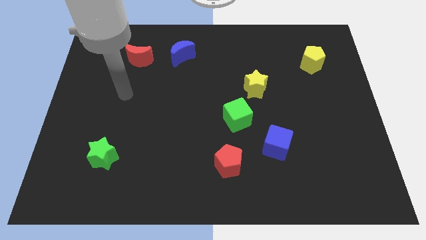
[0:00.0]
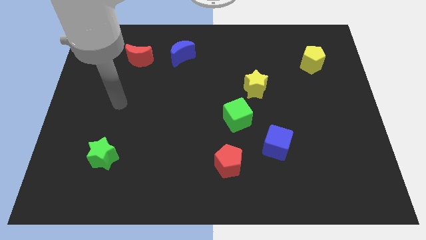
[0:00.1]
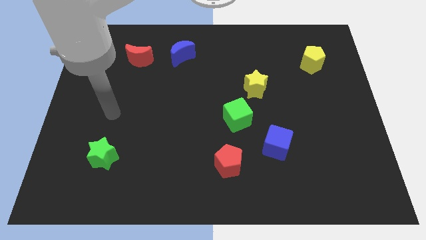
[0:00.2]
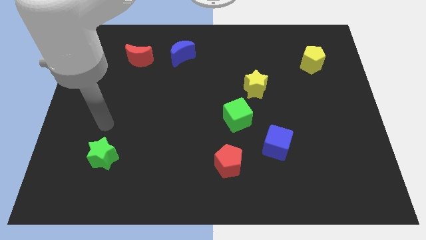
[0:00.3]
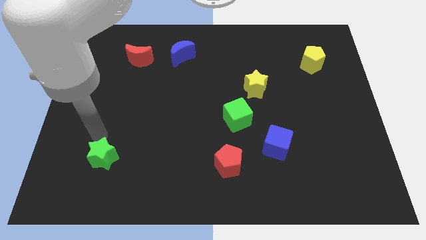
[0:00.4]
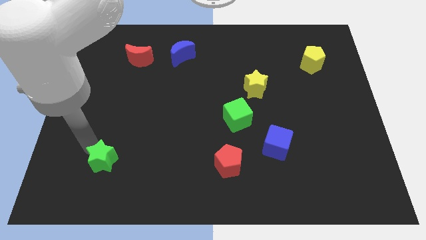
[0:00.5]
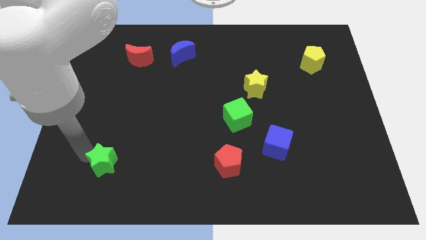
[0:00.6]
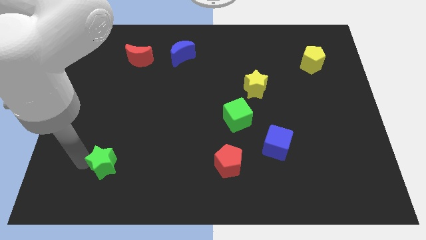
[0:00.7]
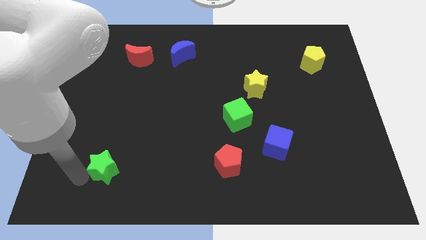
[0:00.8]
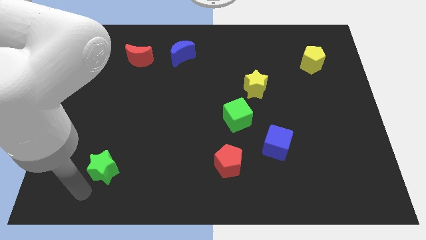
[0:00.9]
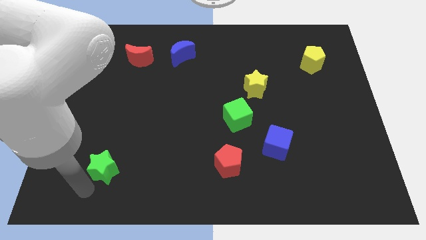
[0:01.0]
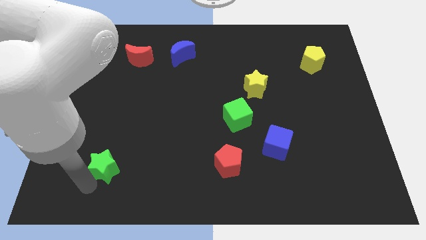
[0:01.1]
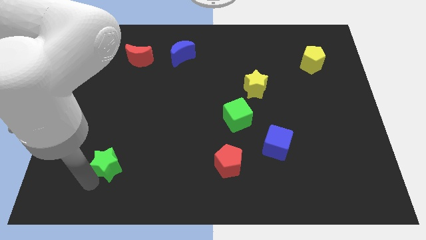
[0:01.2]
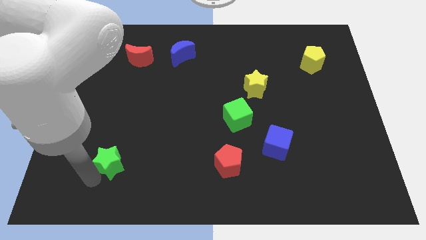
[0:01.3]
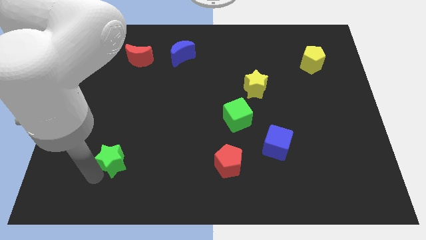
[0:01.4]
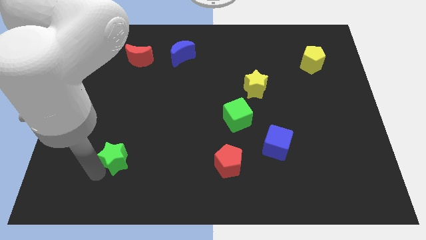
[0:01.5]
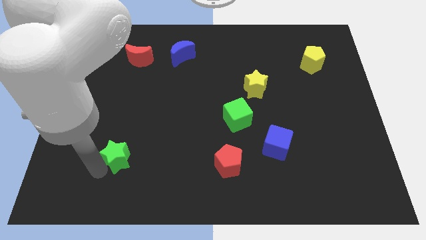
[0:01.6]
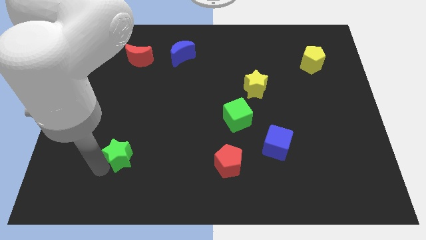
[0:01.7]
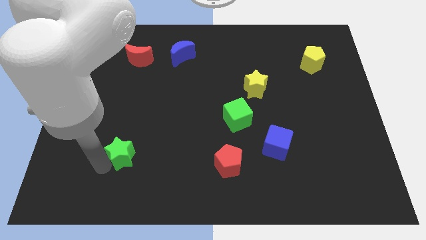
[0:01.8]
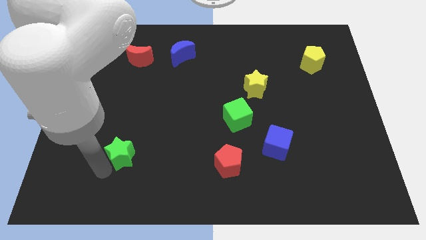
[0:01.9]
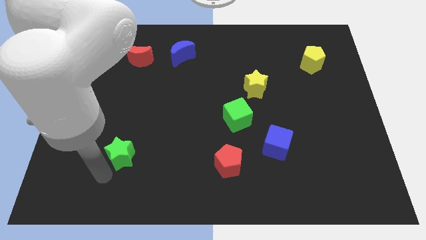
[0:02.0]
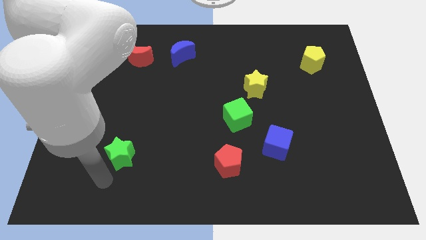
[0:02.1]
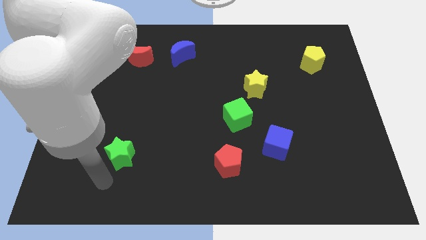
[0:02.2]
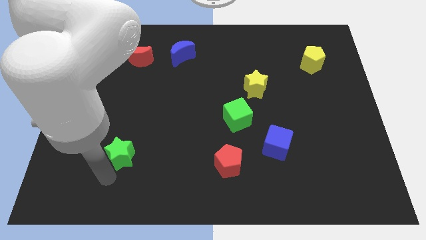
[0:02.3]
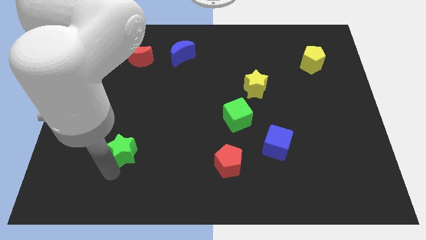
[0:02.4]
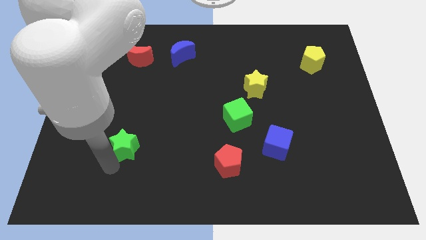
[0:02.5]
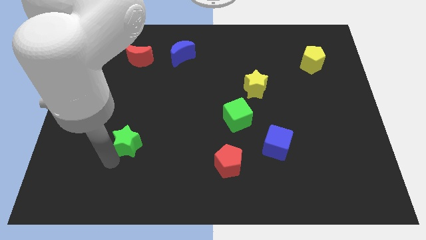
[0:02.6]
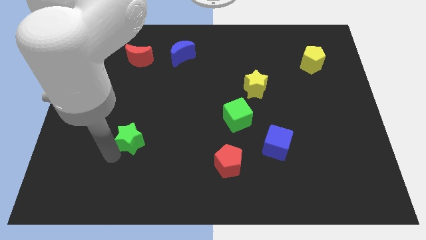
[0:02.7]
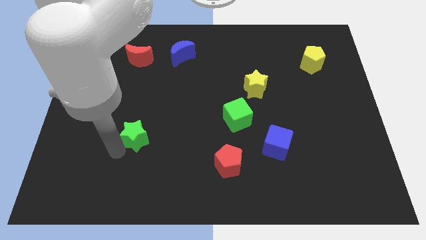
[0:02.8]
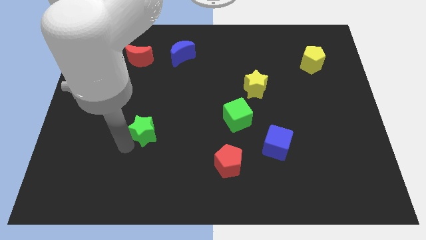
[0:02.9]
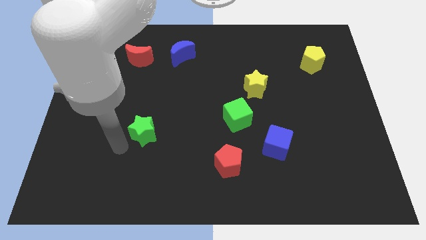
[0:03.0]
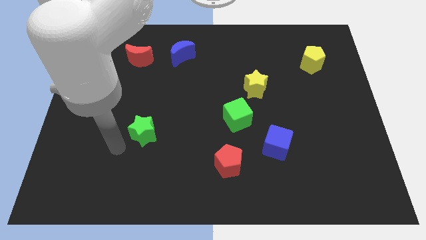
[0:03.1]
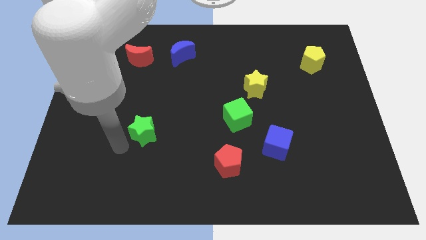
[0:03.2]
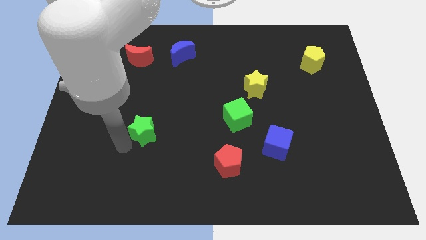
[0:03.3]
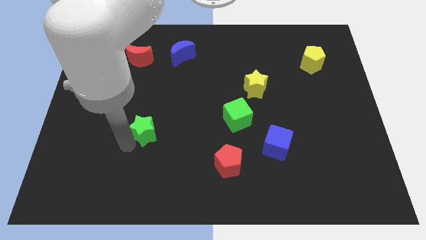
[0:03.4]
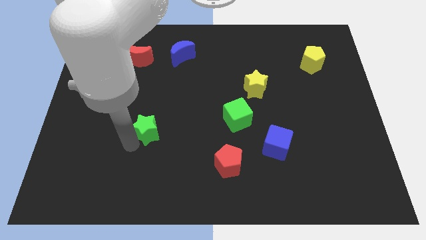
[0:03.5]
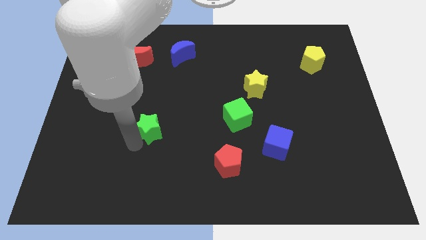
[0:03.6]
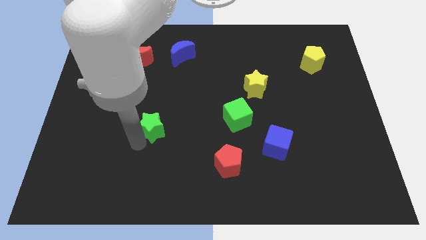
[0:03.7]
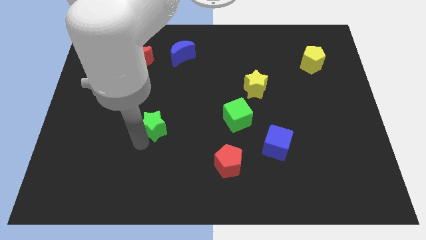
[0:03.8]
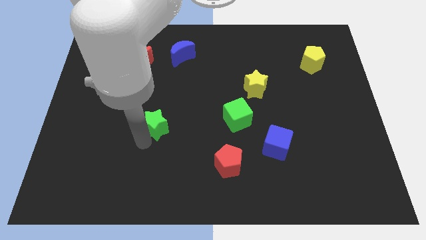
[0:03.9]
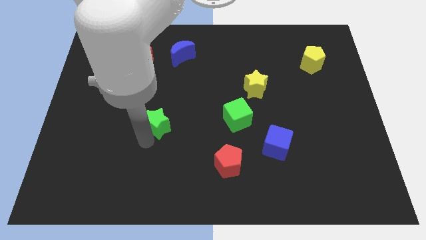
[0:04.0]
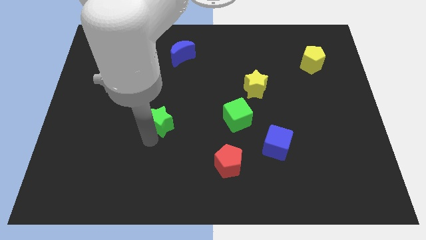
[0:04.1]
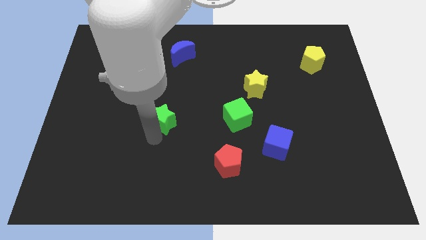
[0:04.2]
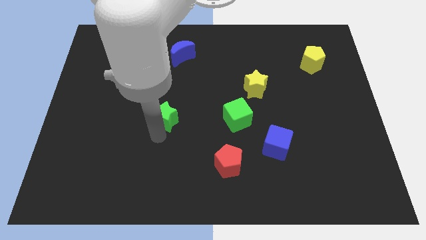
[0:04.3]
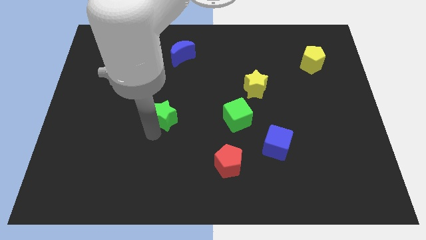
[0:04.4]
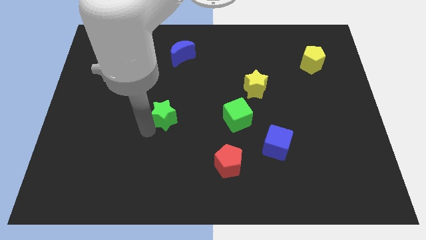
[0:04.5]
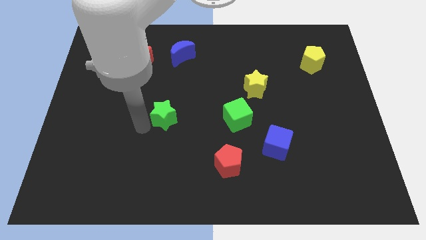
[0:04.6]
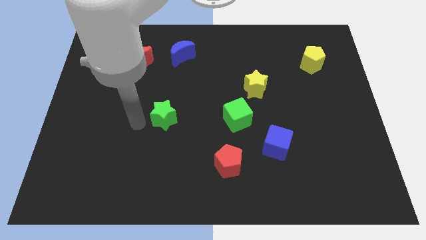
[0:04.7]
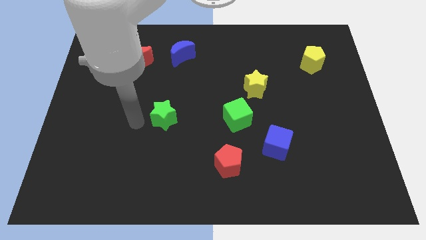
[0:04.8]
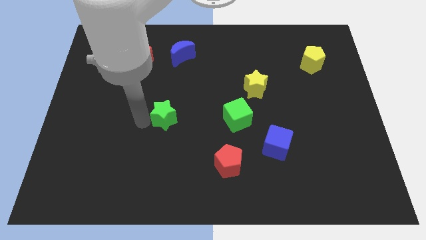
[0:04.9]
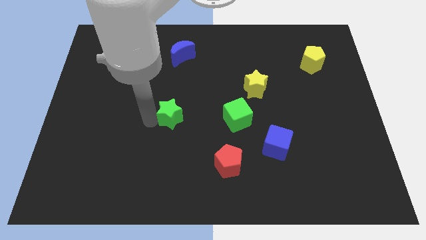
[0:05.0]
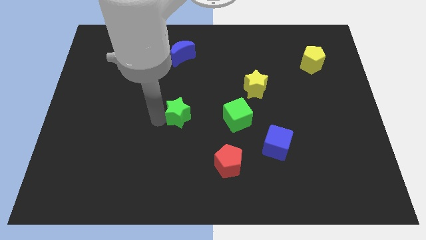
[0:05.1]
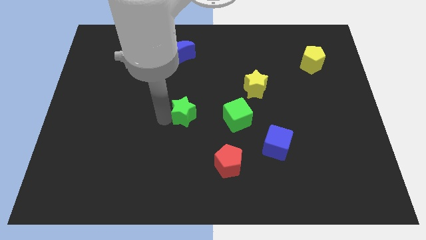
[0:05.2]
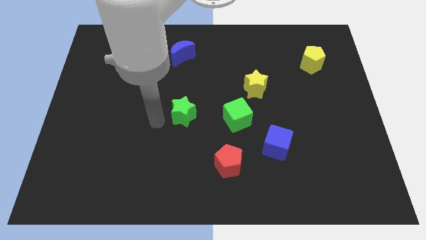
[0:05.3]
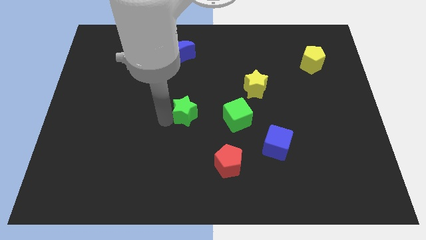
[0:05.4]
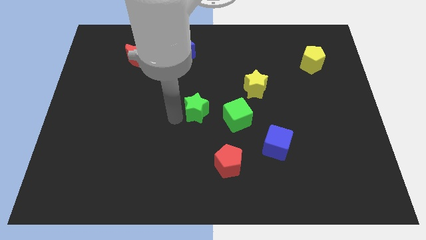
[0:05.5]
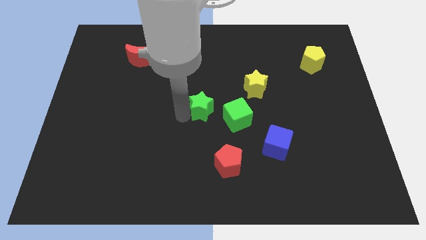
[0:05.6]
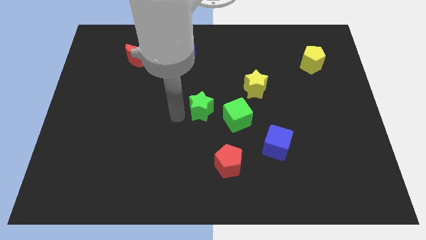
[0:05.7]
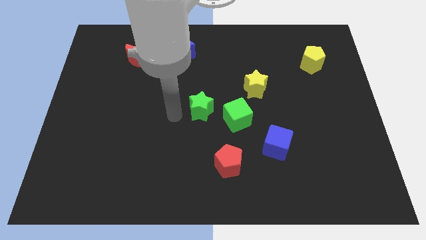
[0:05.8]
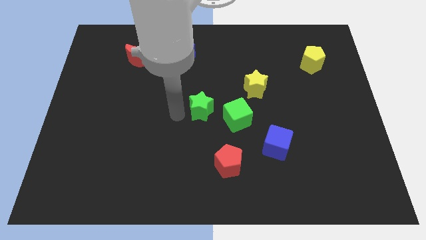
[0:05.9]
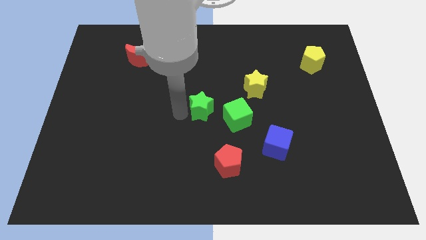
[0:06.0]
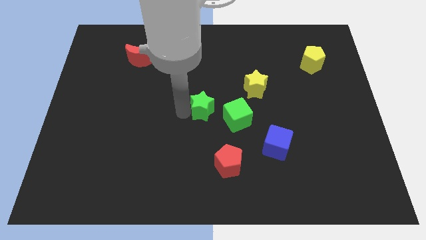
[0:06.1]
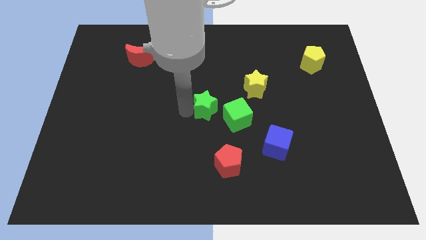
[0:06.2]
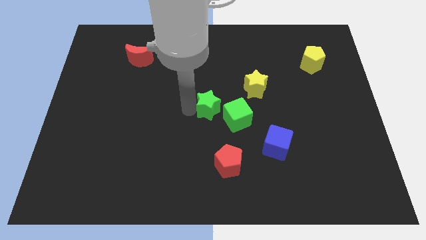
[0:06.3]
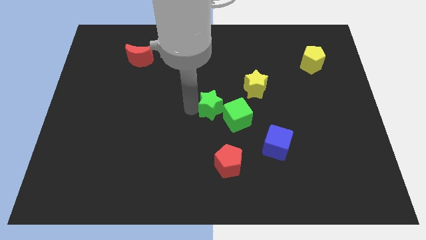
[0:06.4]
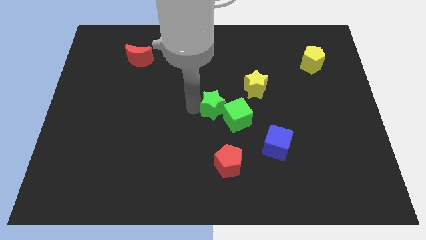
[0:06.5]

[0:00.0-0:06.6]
move the green star above the red pentagon

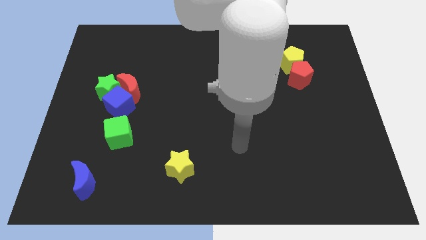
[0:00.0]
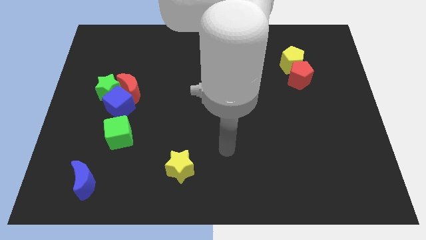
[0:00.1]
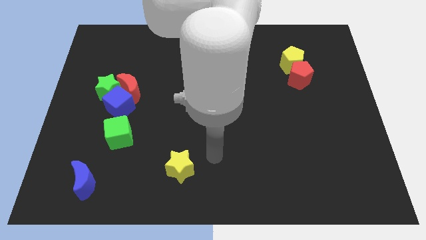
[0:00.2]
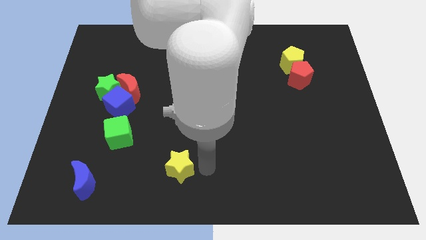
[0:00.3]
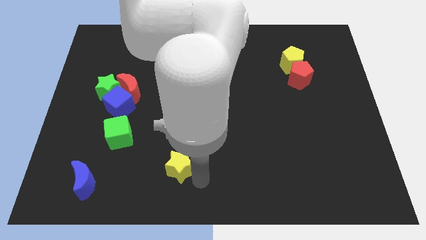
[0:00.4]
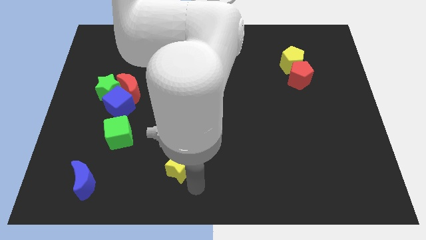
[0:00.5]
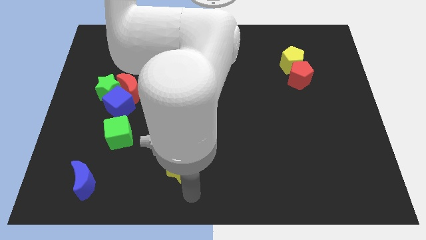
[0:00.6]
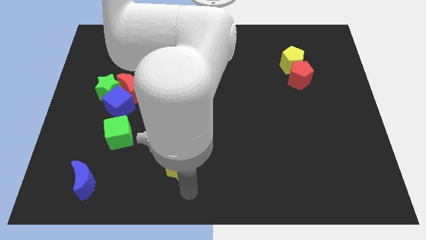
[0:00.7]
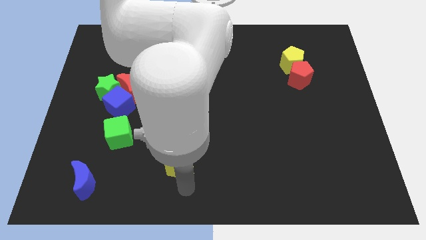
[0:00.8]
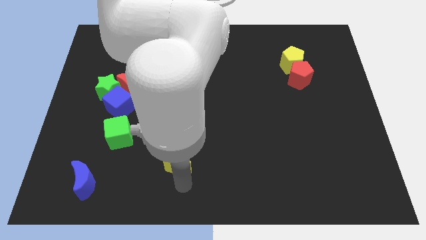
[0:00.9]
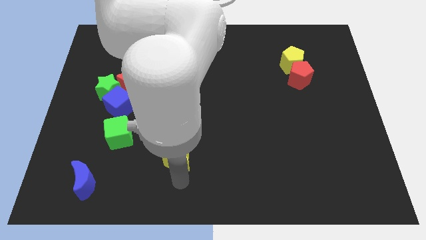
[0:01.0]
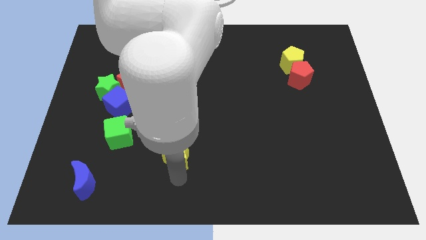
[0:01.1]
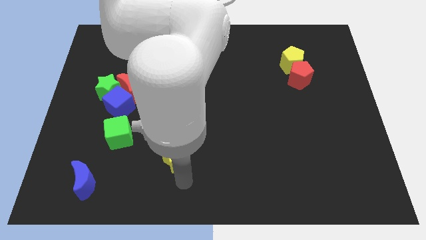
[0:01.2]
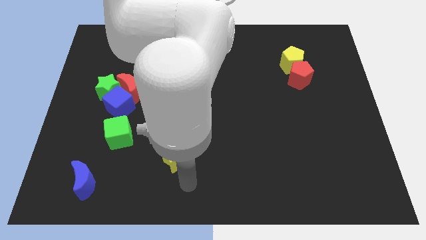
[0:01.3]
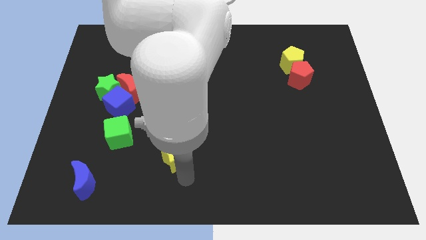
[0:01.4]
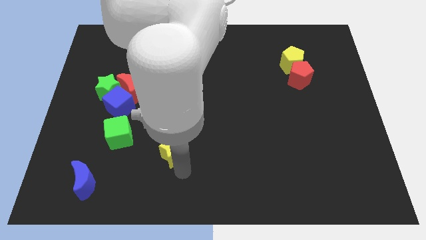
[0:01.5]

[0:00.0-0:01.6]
push the yellow star just right of the green cube
